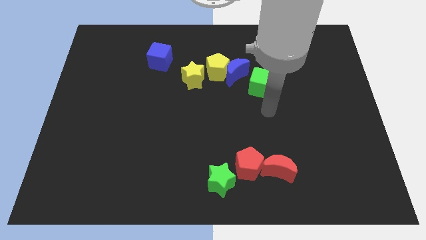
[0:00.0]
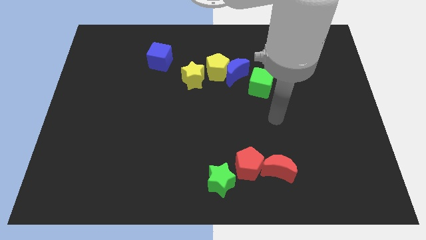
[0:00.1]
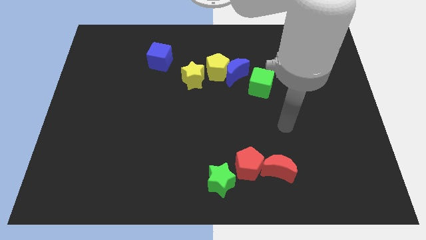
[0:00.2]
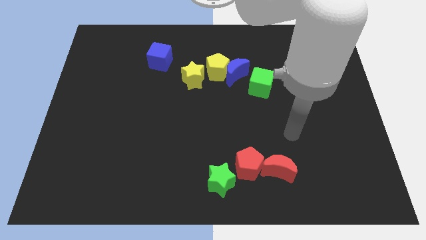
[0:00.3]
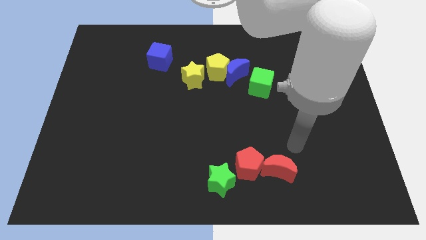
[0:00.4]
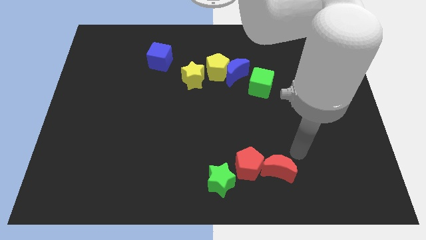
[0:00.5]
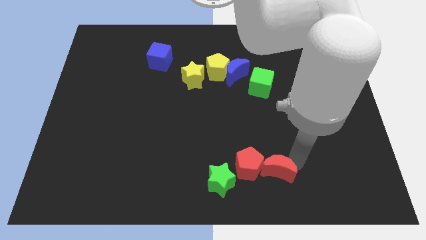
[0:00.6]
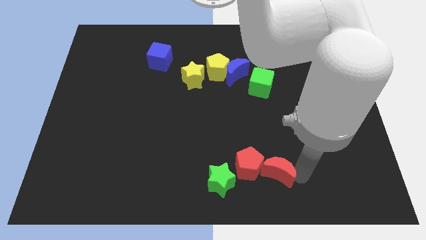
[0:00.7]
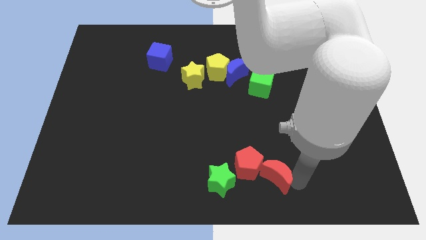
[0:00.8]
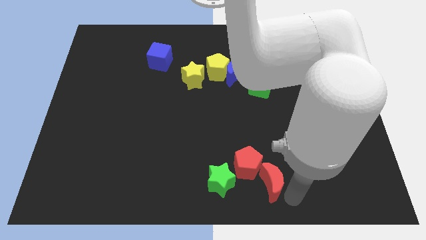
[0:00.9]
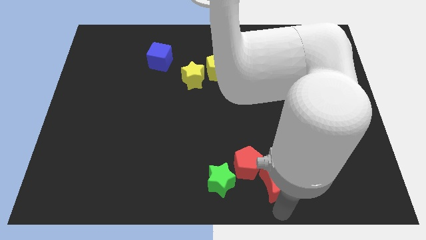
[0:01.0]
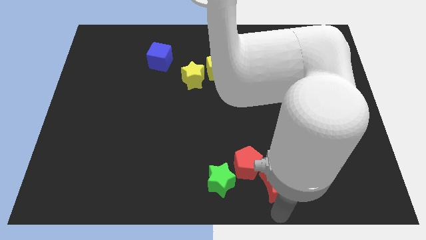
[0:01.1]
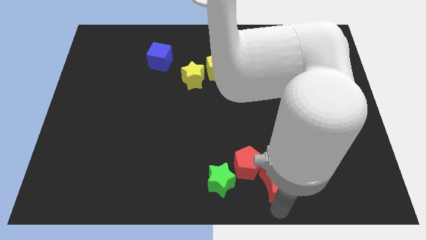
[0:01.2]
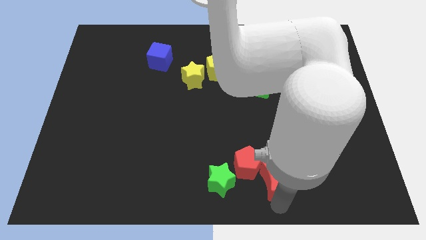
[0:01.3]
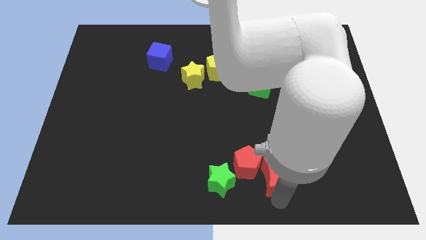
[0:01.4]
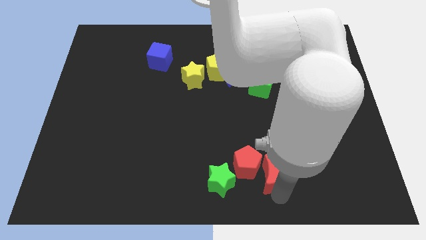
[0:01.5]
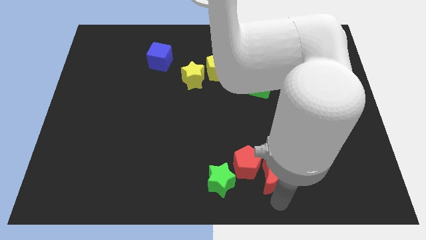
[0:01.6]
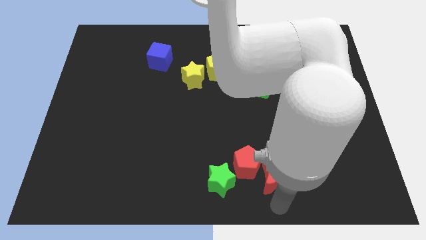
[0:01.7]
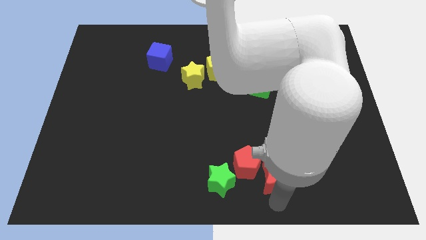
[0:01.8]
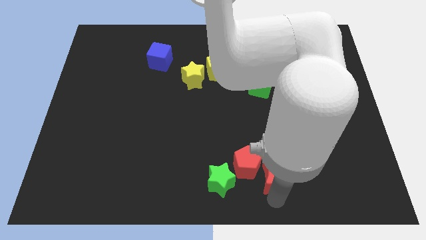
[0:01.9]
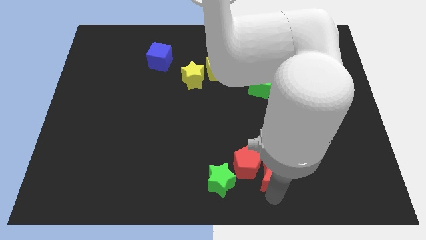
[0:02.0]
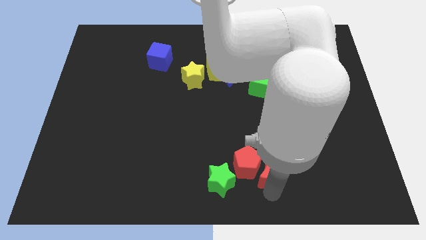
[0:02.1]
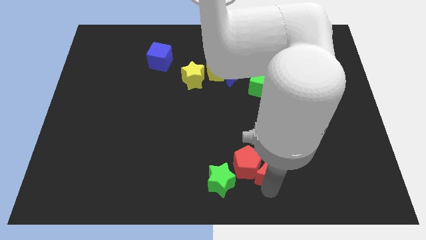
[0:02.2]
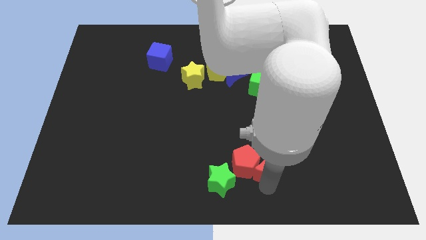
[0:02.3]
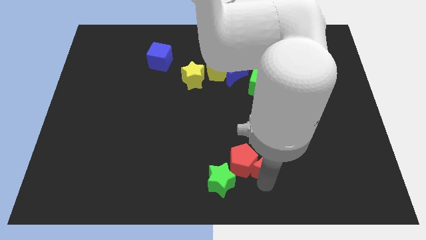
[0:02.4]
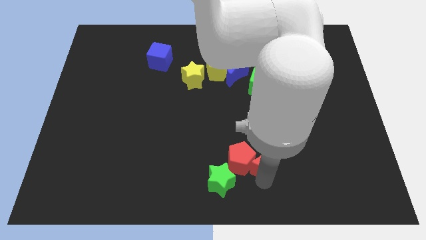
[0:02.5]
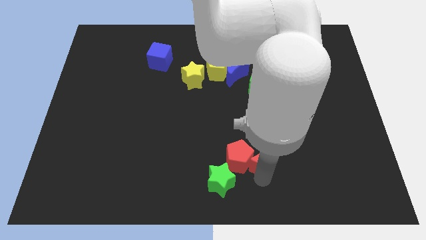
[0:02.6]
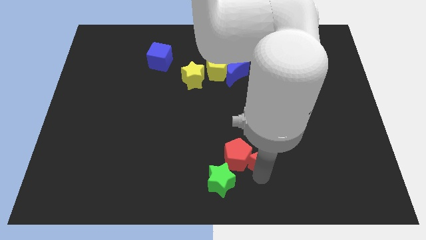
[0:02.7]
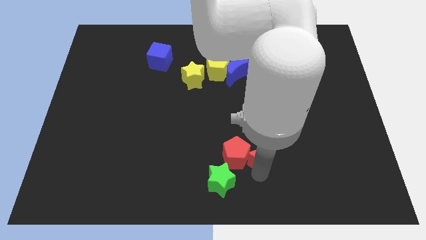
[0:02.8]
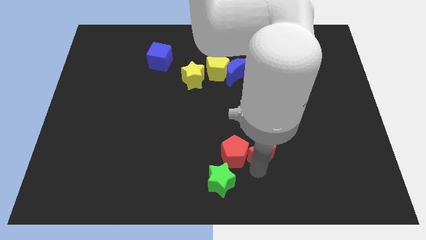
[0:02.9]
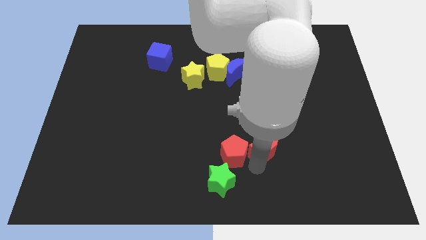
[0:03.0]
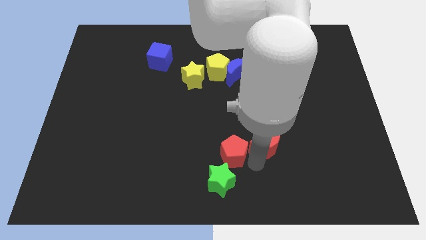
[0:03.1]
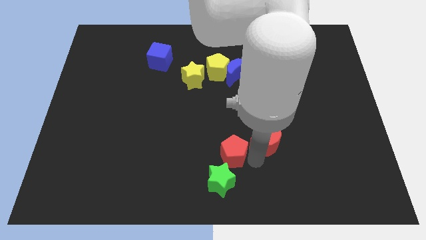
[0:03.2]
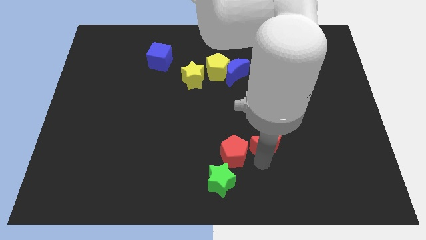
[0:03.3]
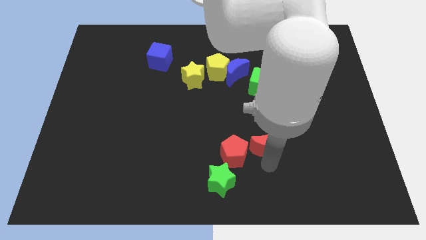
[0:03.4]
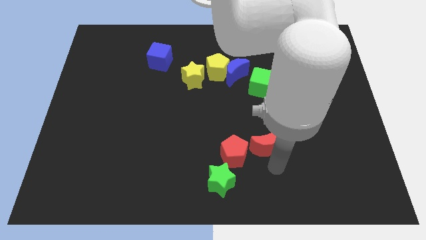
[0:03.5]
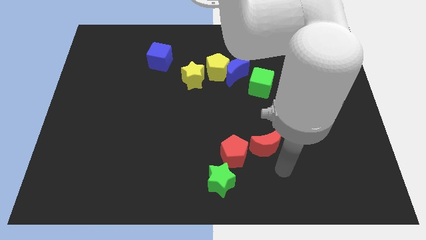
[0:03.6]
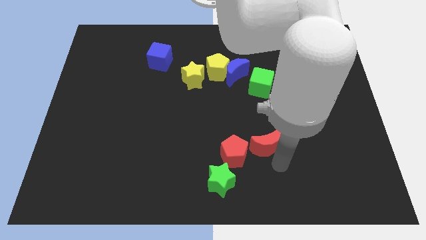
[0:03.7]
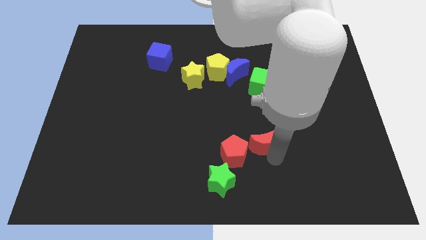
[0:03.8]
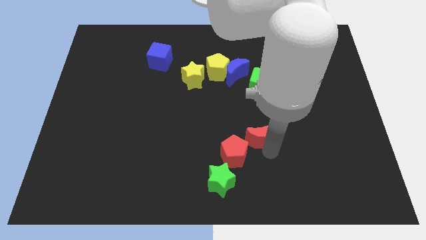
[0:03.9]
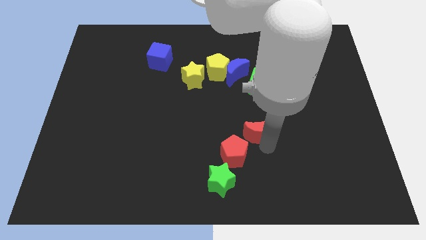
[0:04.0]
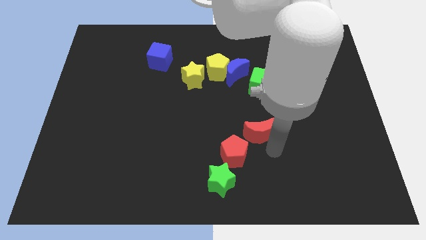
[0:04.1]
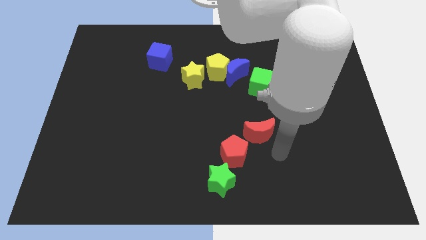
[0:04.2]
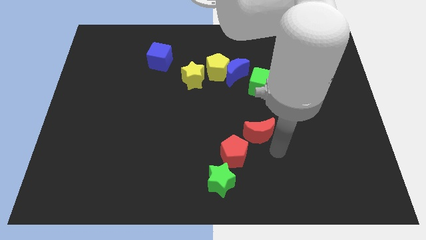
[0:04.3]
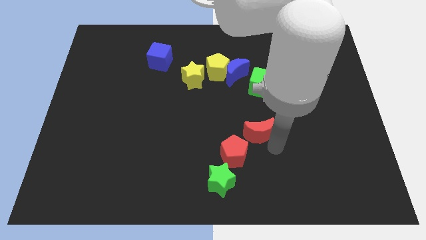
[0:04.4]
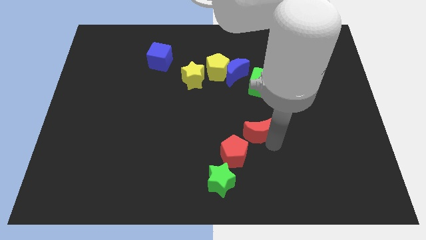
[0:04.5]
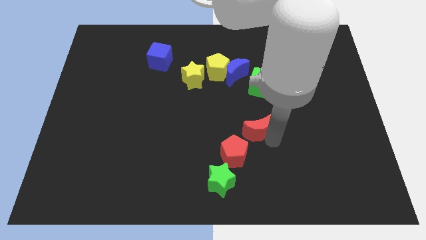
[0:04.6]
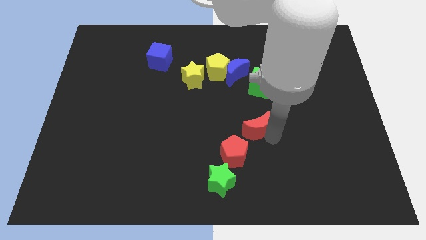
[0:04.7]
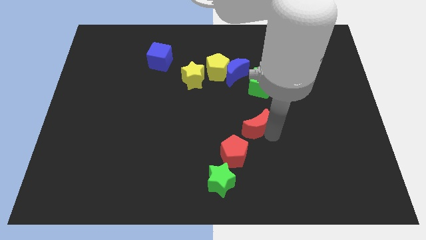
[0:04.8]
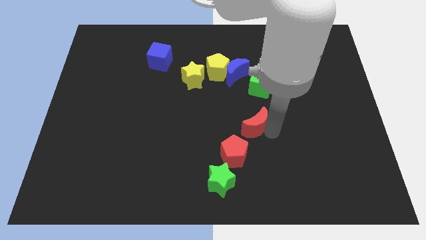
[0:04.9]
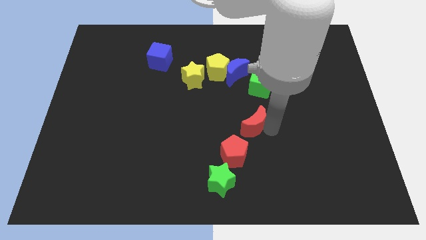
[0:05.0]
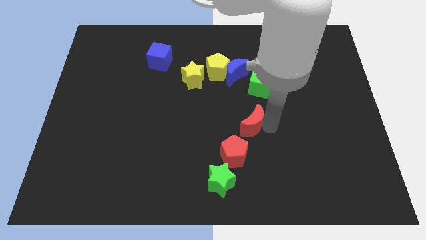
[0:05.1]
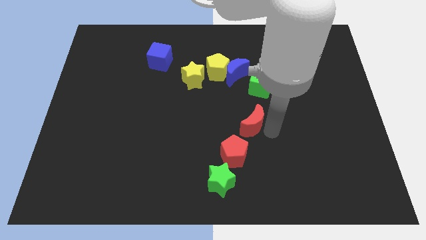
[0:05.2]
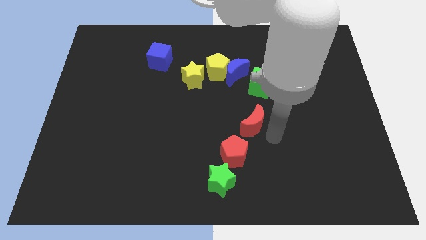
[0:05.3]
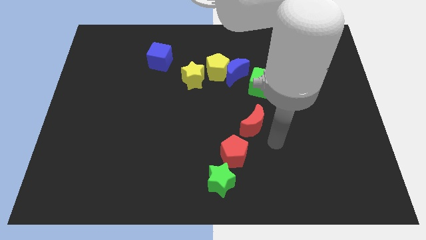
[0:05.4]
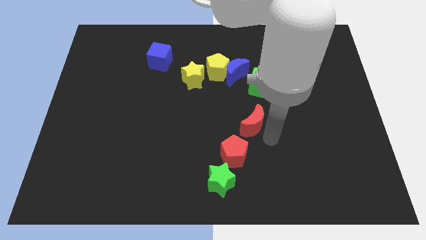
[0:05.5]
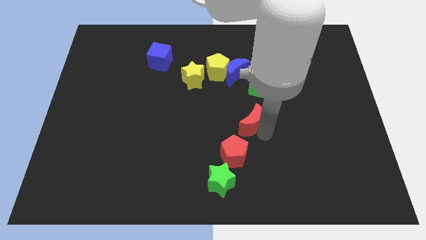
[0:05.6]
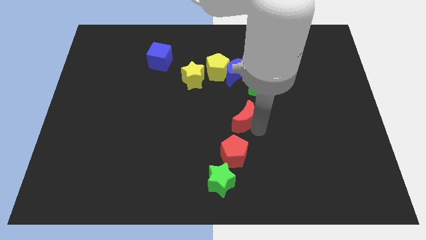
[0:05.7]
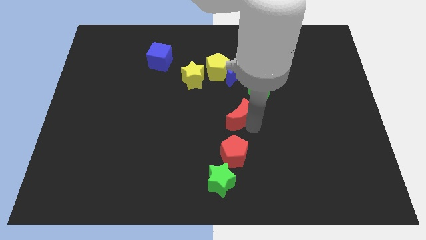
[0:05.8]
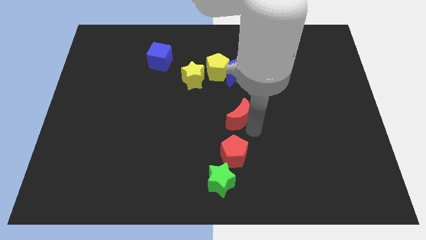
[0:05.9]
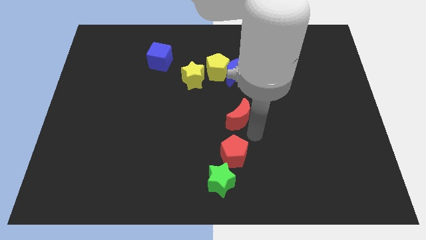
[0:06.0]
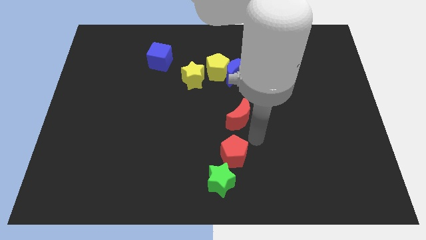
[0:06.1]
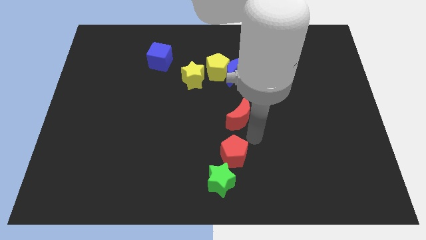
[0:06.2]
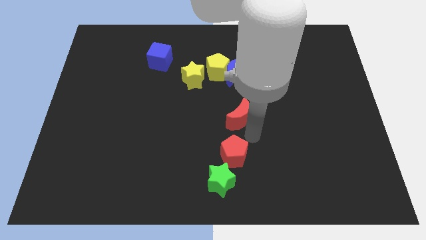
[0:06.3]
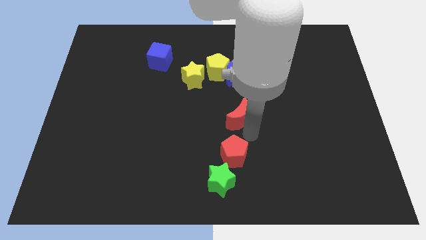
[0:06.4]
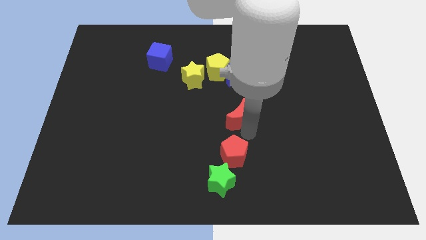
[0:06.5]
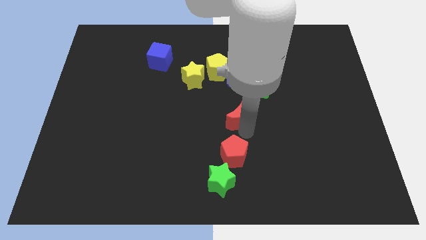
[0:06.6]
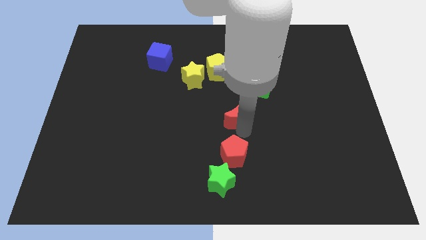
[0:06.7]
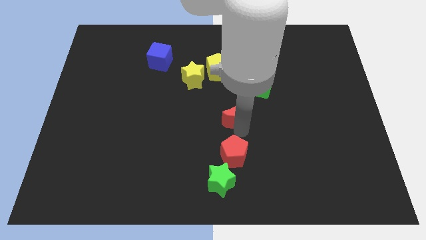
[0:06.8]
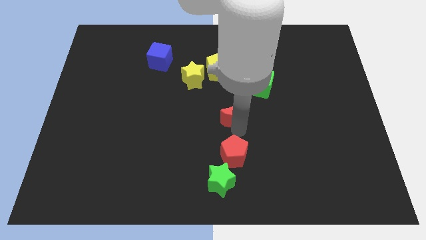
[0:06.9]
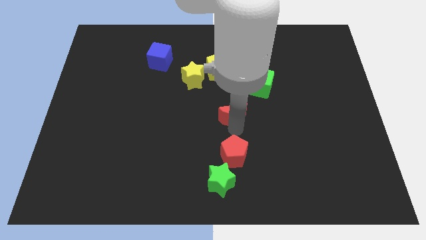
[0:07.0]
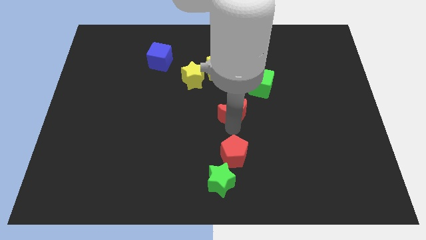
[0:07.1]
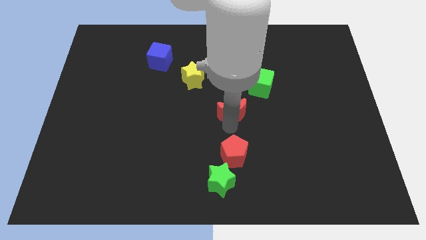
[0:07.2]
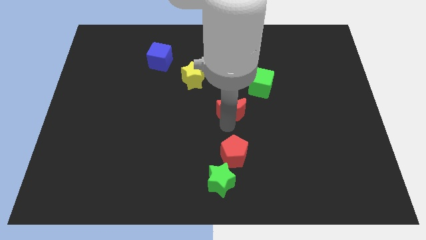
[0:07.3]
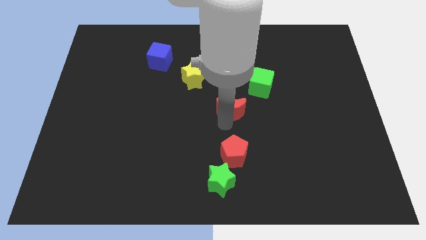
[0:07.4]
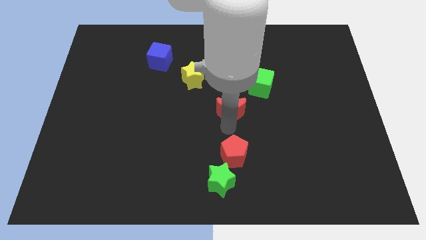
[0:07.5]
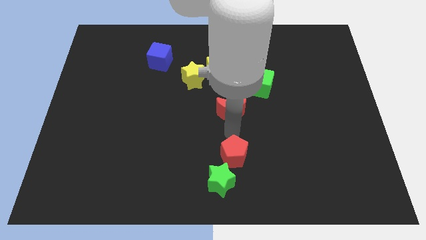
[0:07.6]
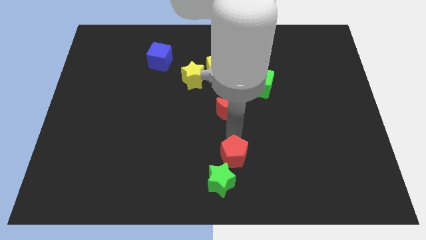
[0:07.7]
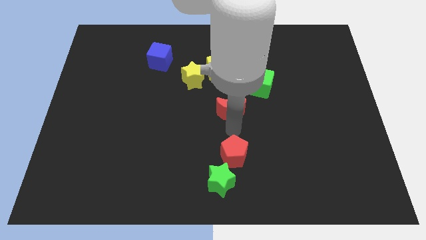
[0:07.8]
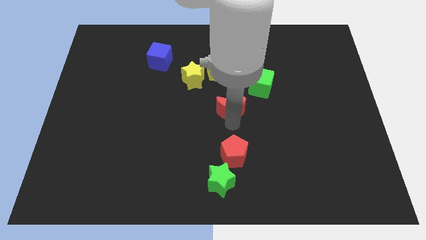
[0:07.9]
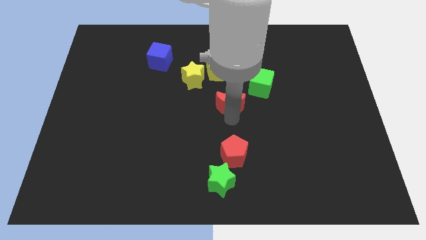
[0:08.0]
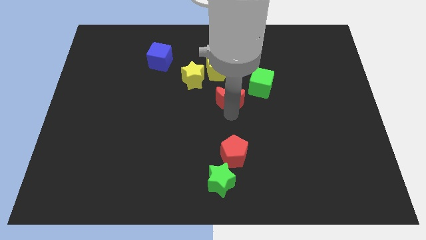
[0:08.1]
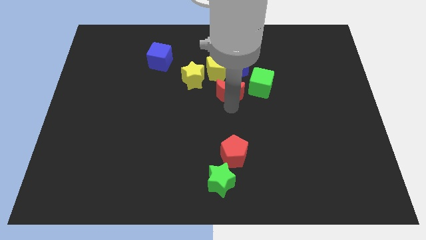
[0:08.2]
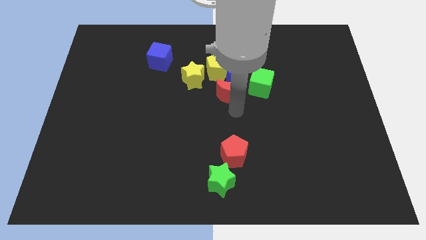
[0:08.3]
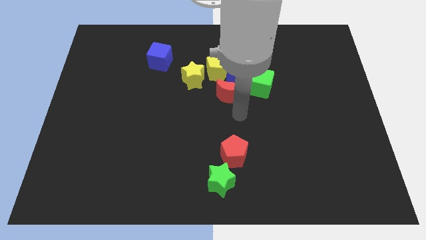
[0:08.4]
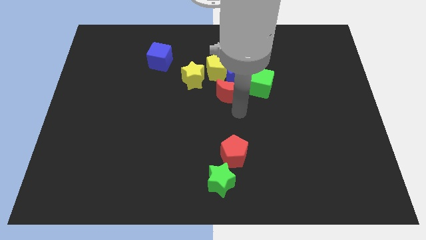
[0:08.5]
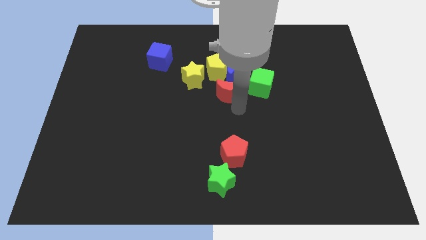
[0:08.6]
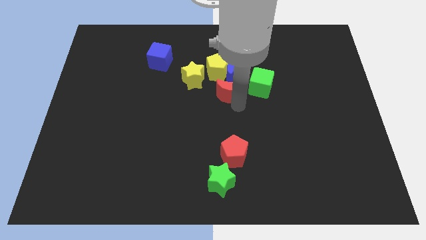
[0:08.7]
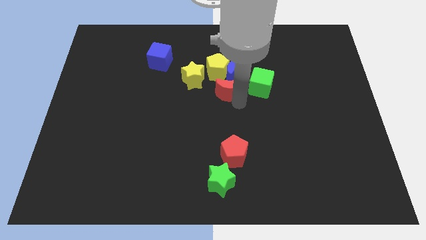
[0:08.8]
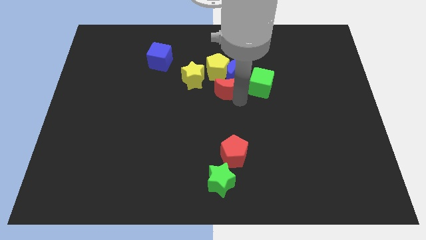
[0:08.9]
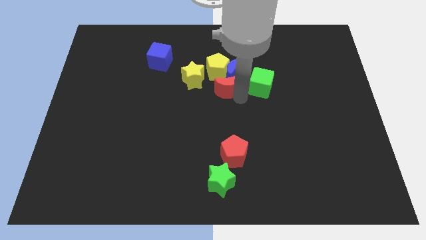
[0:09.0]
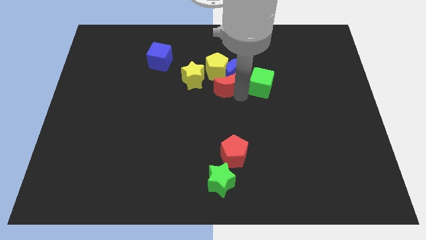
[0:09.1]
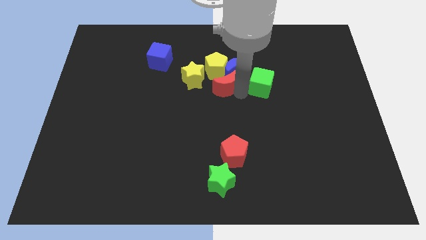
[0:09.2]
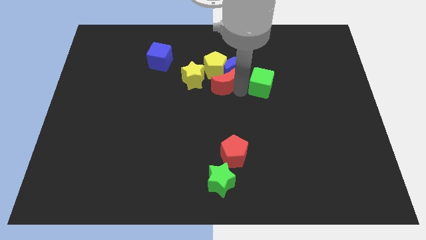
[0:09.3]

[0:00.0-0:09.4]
slide the red moon next to the yellow pentagon
